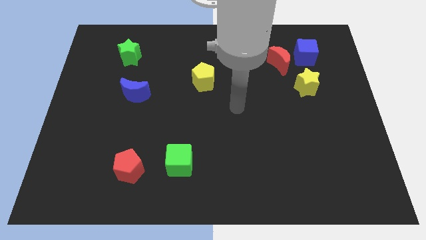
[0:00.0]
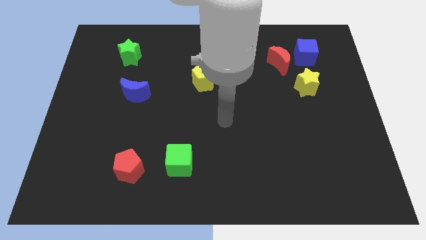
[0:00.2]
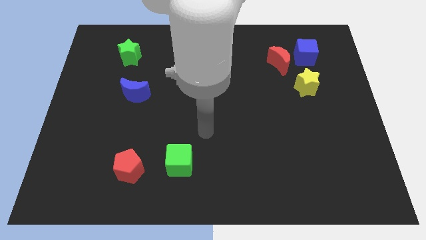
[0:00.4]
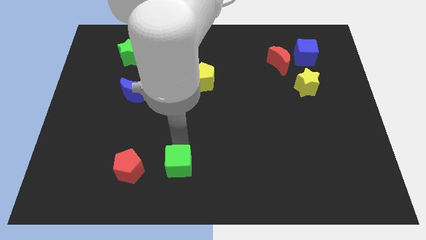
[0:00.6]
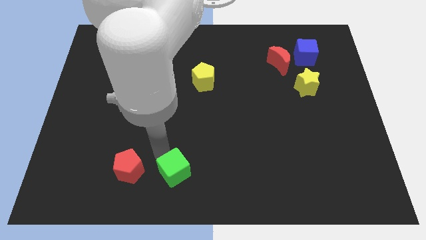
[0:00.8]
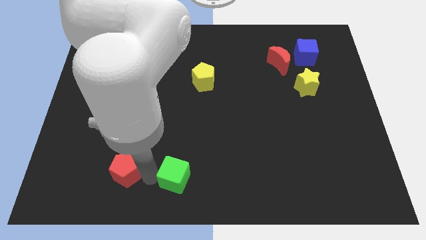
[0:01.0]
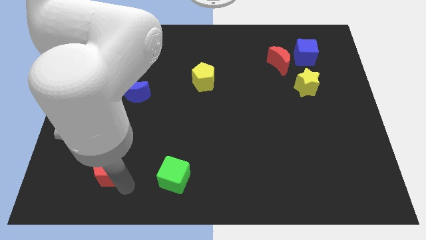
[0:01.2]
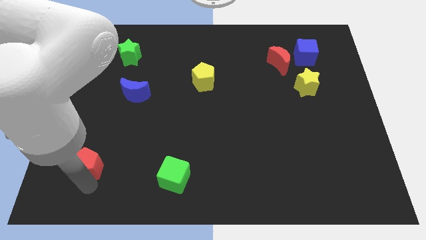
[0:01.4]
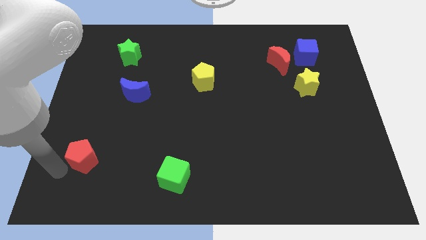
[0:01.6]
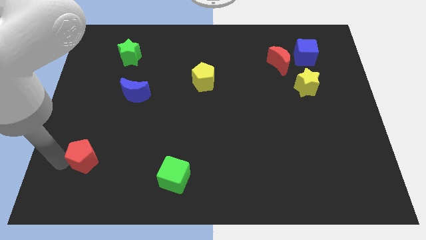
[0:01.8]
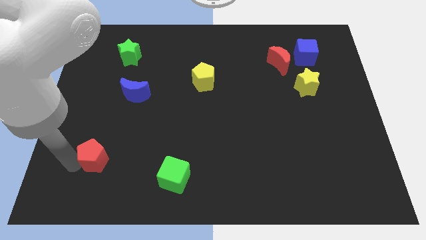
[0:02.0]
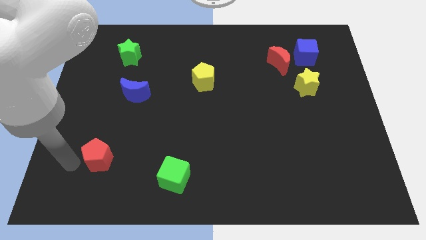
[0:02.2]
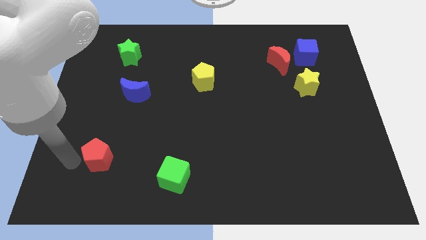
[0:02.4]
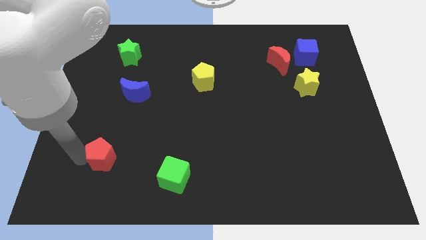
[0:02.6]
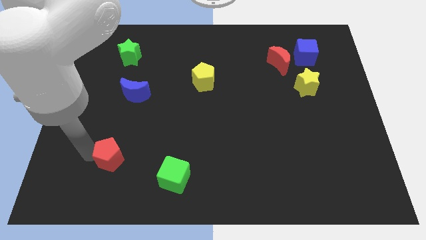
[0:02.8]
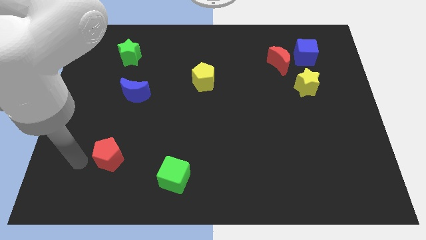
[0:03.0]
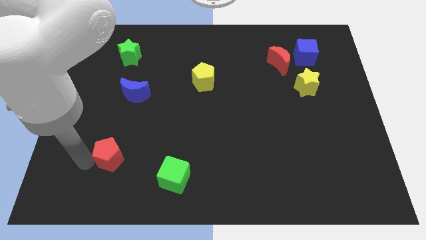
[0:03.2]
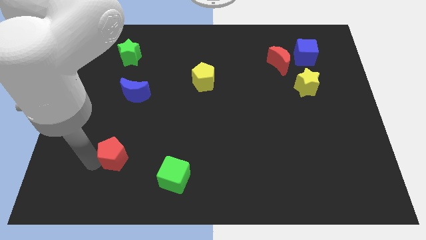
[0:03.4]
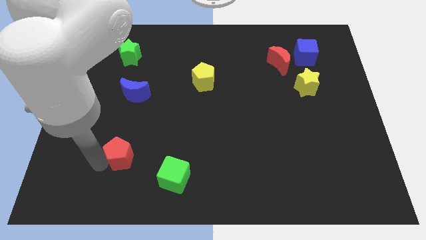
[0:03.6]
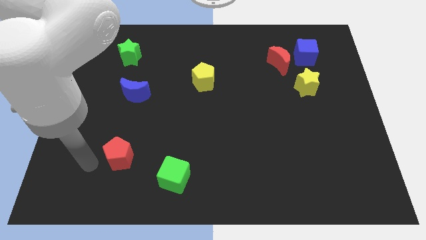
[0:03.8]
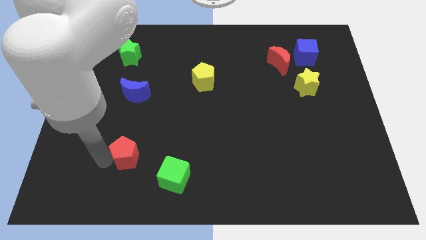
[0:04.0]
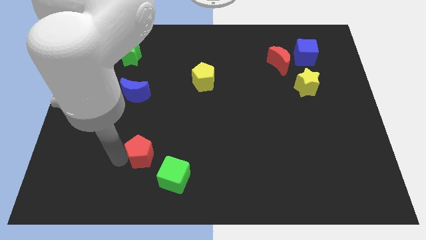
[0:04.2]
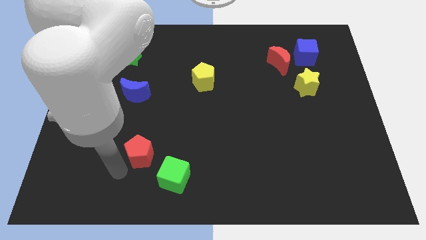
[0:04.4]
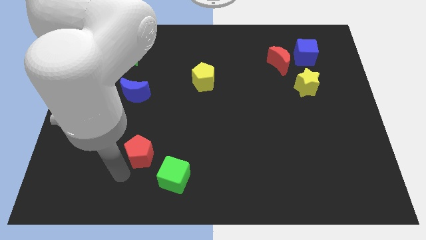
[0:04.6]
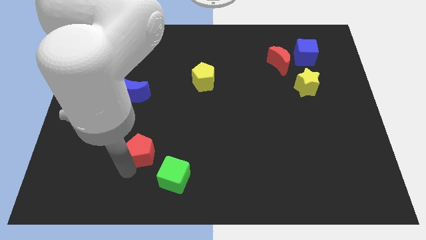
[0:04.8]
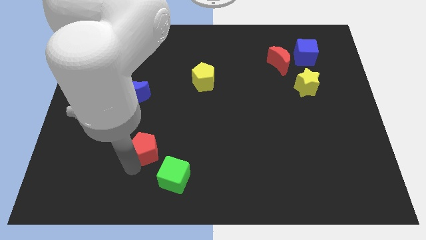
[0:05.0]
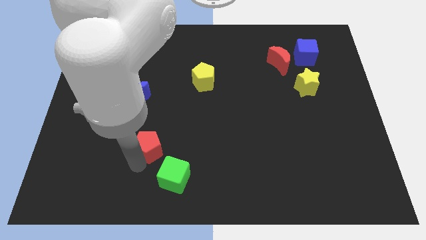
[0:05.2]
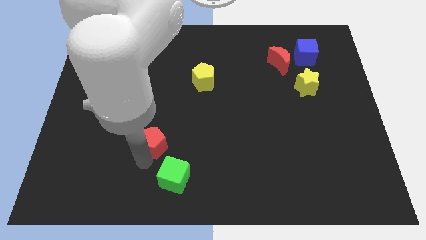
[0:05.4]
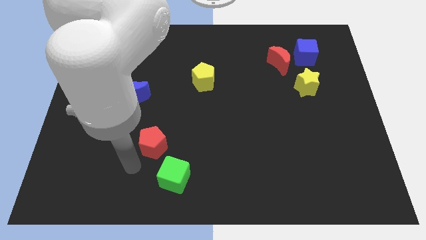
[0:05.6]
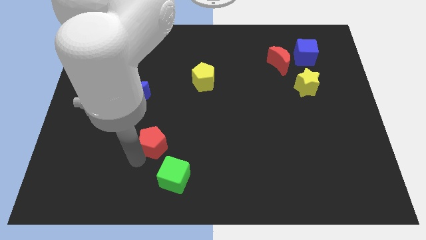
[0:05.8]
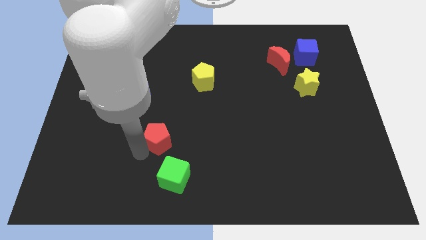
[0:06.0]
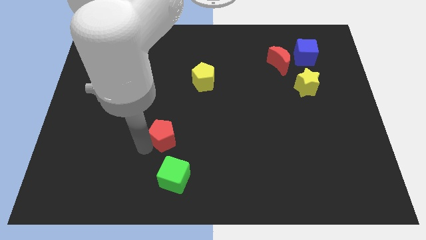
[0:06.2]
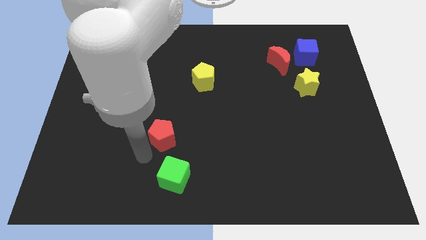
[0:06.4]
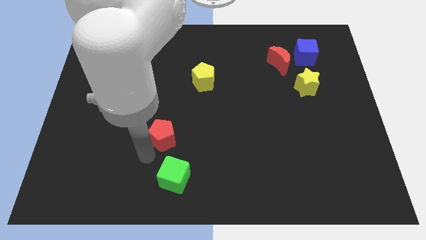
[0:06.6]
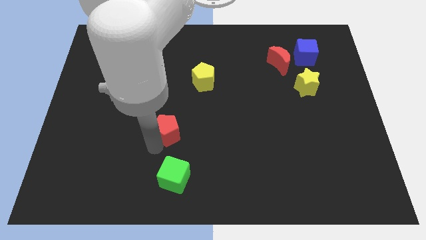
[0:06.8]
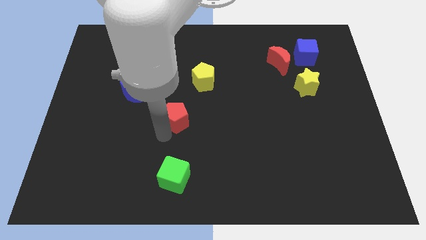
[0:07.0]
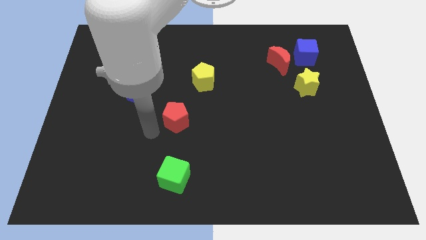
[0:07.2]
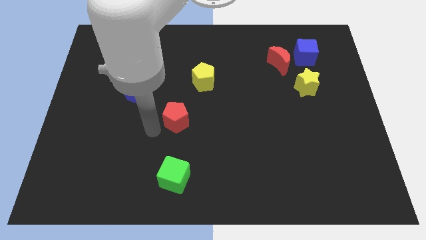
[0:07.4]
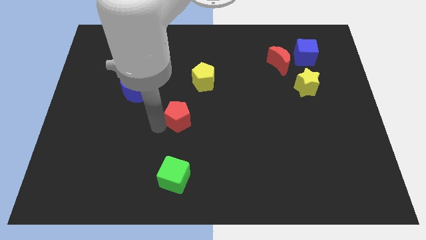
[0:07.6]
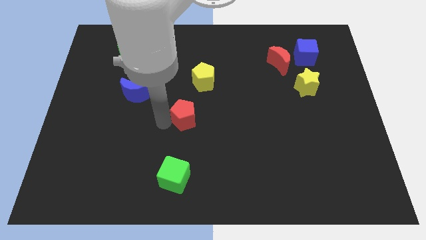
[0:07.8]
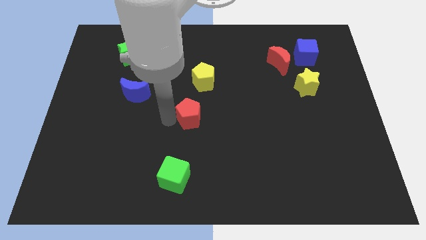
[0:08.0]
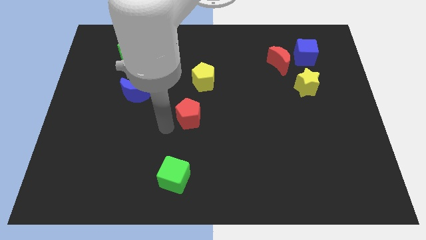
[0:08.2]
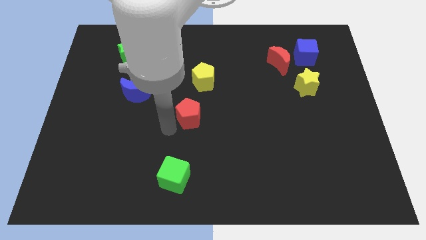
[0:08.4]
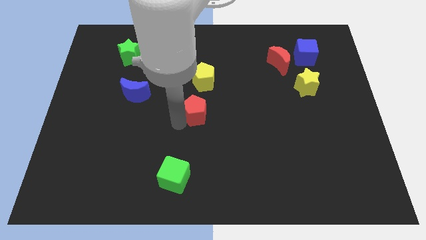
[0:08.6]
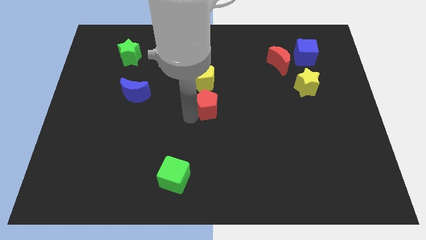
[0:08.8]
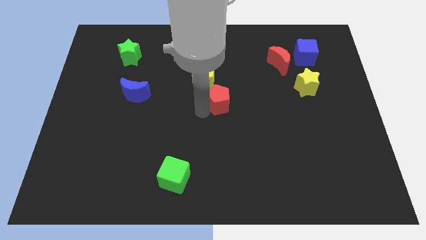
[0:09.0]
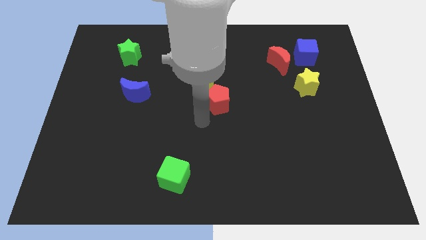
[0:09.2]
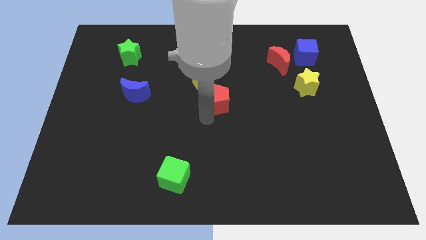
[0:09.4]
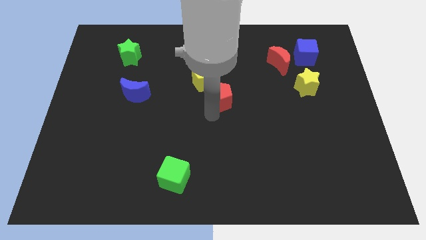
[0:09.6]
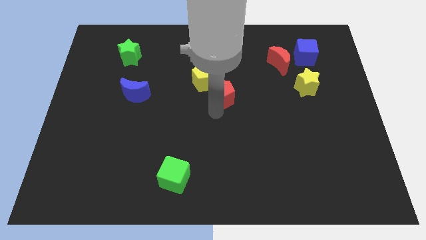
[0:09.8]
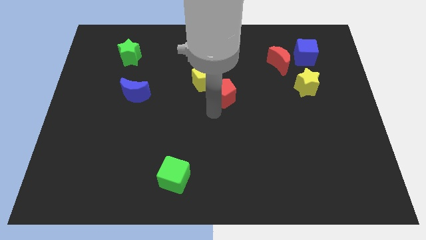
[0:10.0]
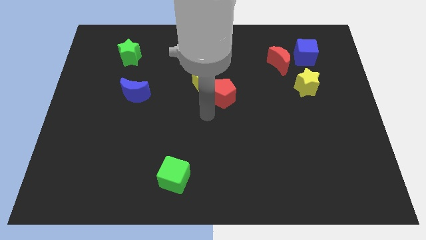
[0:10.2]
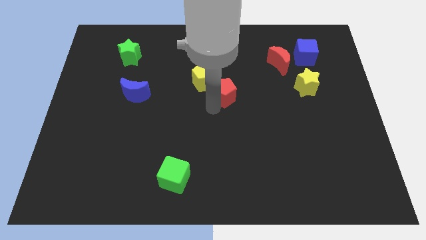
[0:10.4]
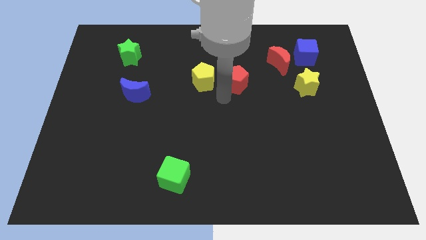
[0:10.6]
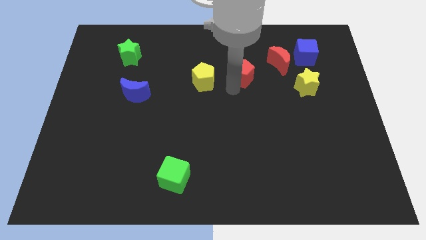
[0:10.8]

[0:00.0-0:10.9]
move the red pentagon just left of the red moon

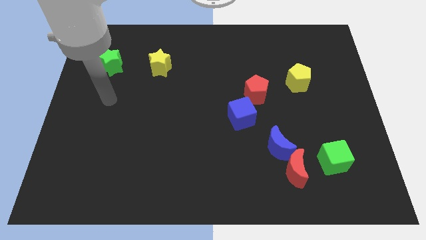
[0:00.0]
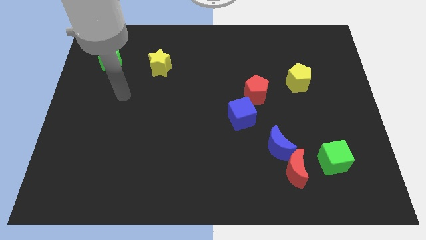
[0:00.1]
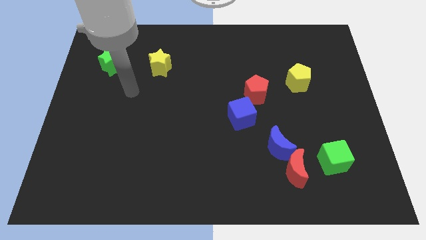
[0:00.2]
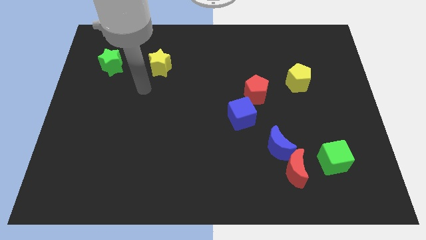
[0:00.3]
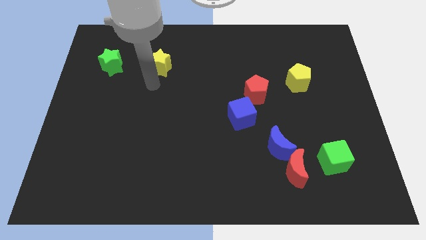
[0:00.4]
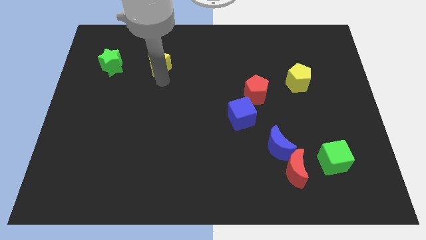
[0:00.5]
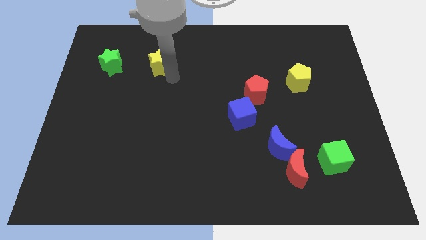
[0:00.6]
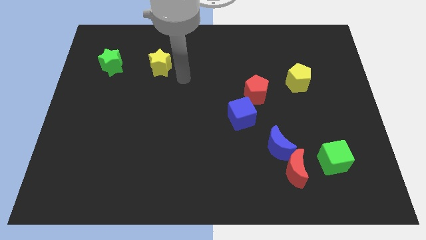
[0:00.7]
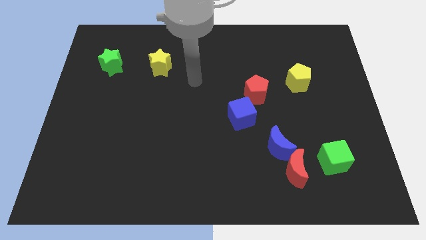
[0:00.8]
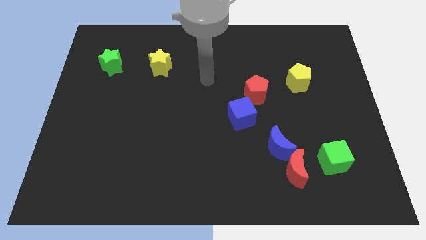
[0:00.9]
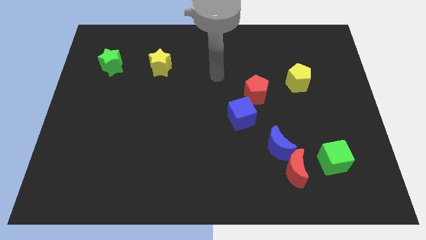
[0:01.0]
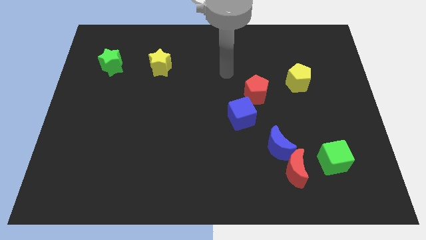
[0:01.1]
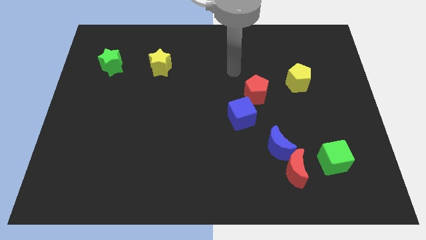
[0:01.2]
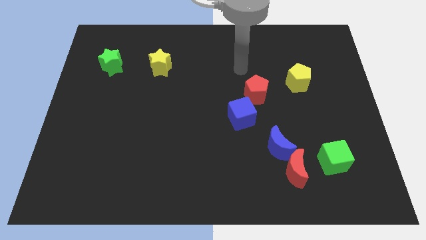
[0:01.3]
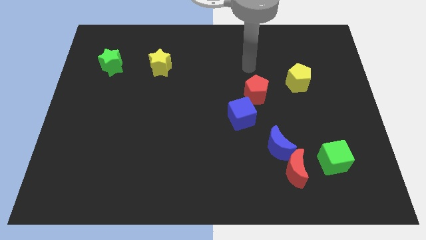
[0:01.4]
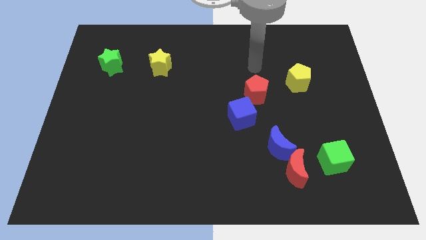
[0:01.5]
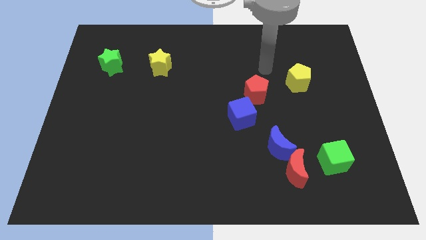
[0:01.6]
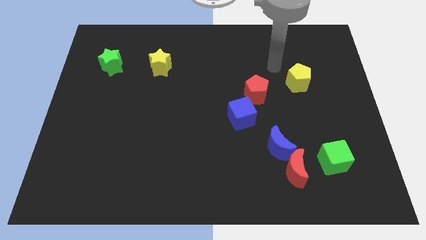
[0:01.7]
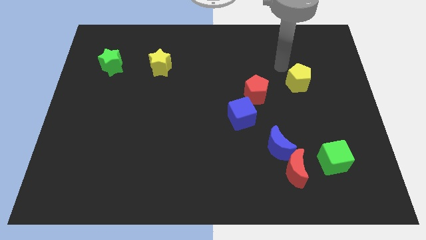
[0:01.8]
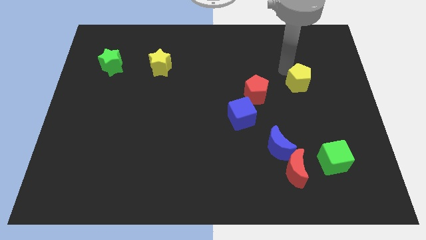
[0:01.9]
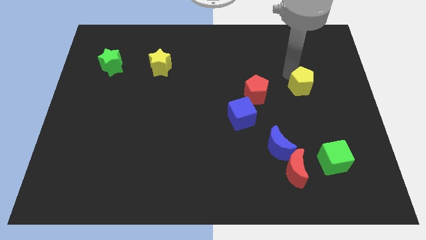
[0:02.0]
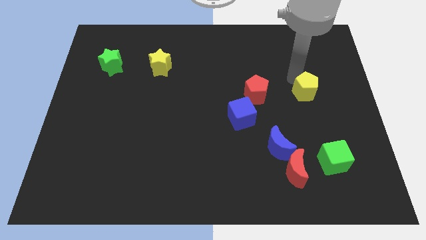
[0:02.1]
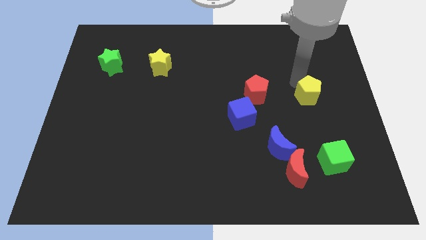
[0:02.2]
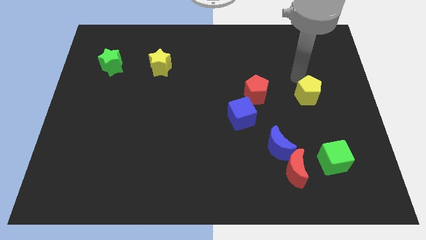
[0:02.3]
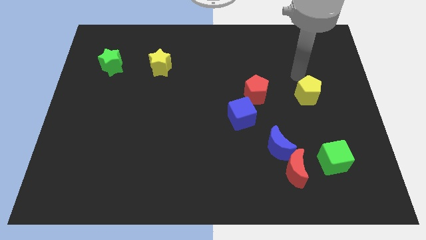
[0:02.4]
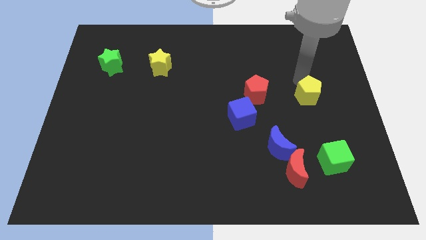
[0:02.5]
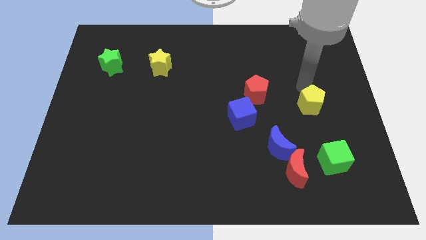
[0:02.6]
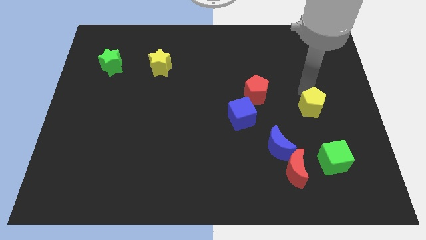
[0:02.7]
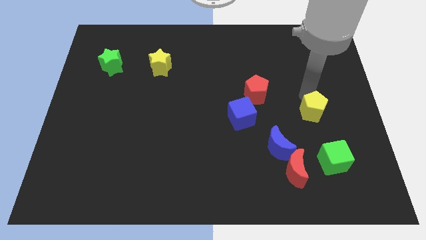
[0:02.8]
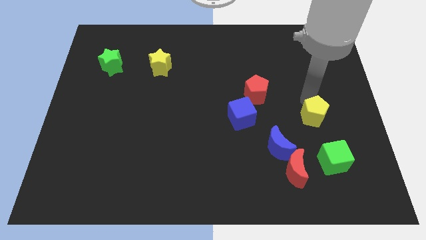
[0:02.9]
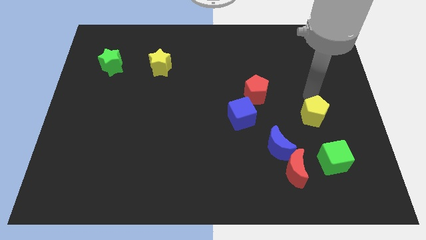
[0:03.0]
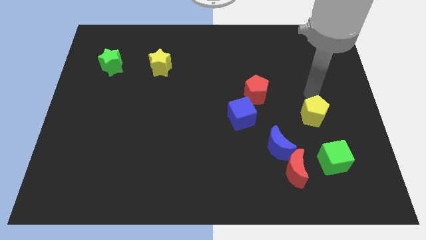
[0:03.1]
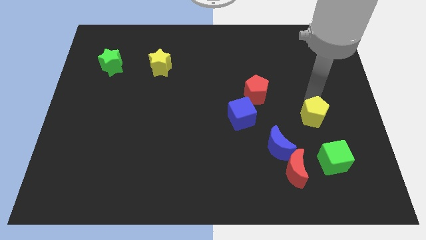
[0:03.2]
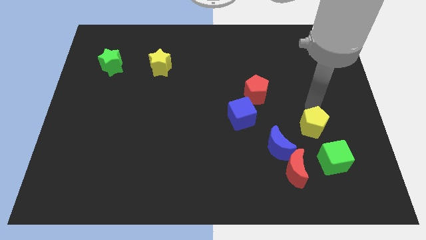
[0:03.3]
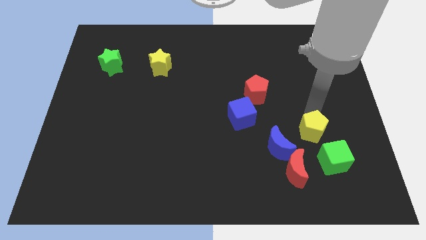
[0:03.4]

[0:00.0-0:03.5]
slide the yellow pentagon to the top right side of the red moon
